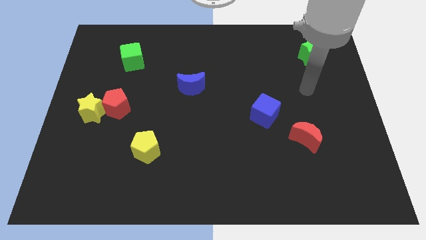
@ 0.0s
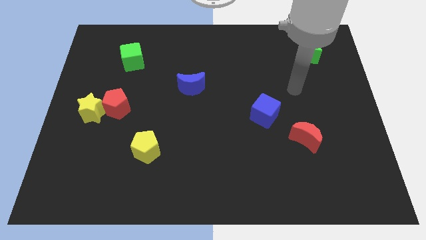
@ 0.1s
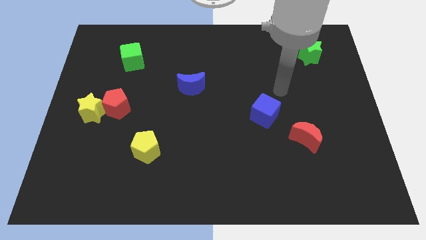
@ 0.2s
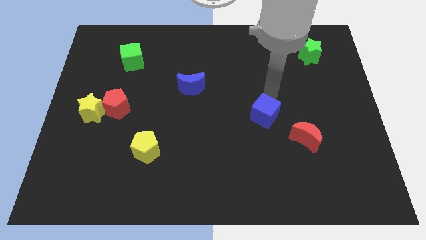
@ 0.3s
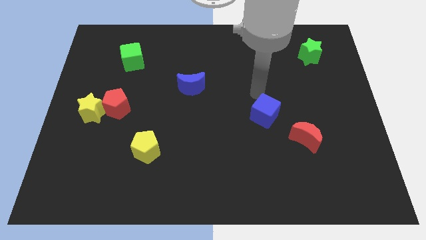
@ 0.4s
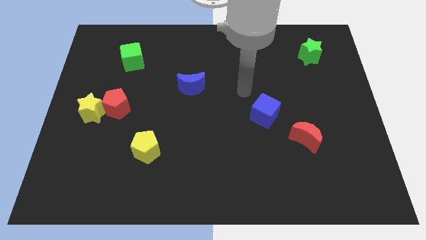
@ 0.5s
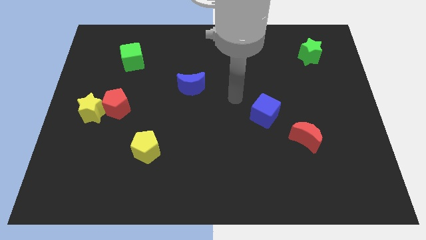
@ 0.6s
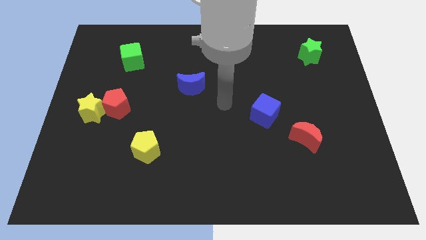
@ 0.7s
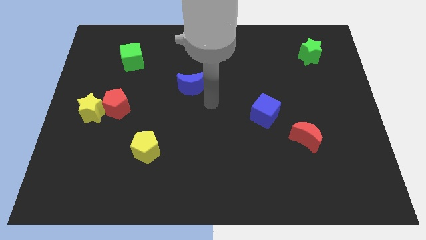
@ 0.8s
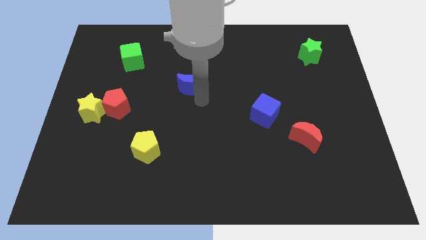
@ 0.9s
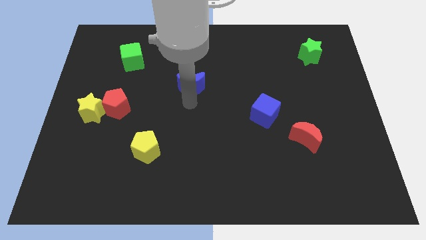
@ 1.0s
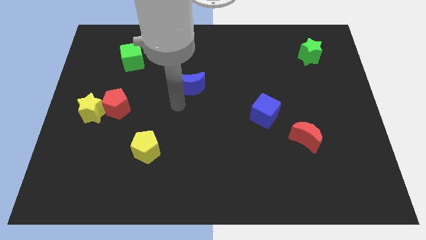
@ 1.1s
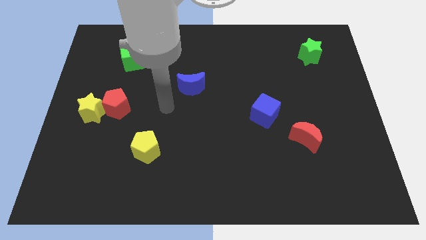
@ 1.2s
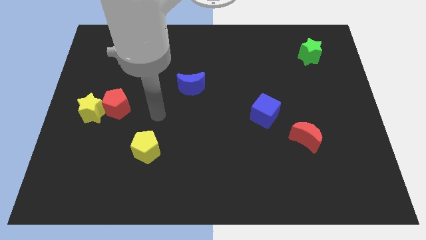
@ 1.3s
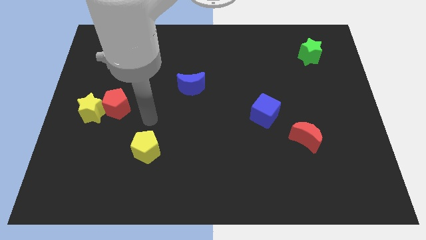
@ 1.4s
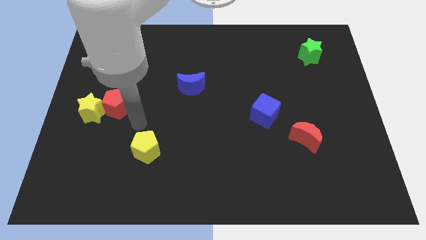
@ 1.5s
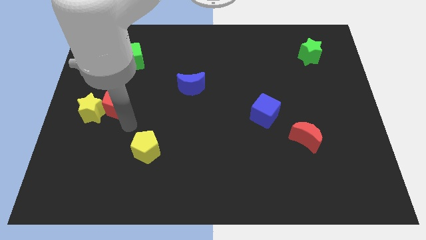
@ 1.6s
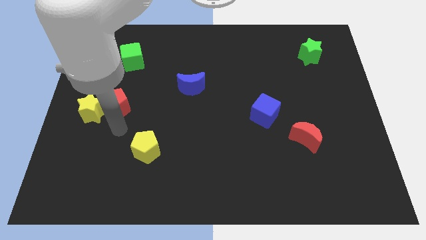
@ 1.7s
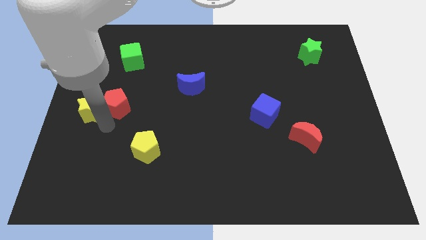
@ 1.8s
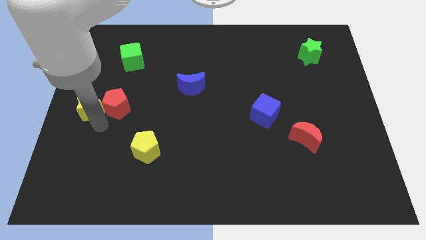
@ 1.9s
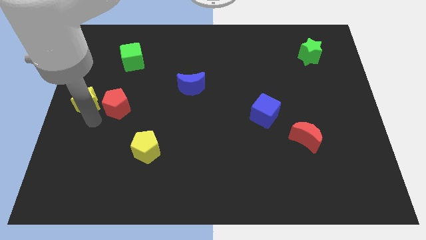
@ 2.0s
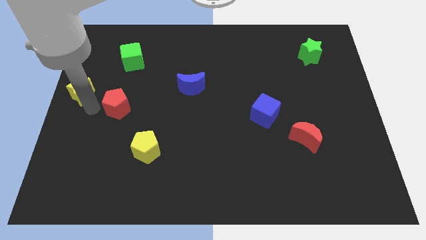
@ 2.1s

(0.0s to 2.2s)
move the red pentagon away from the yellow star

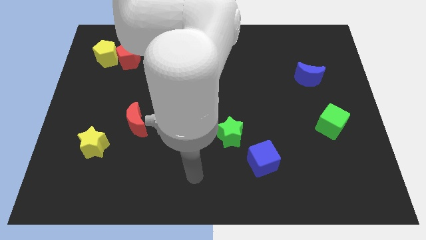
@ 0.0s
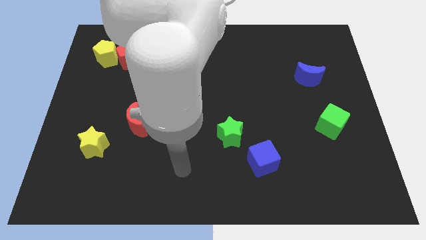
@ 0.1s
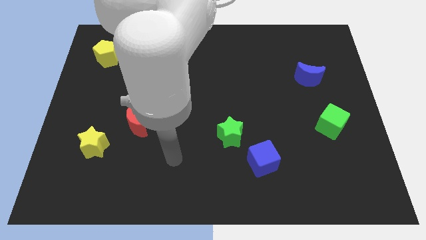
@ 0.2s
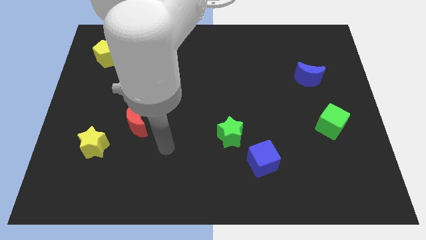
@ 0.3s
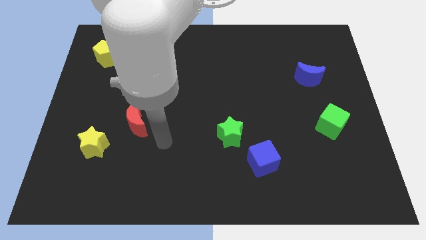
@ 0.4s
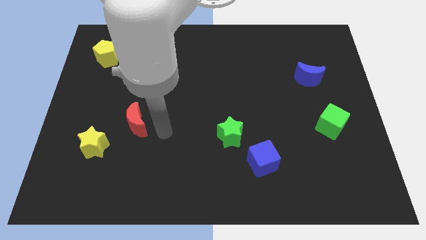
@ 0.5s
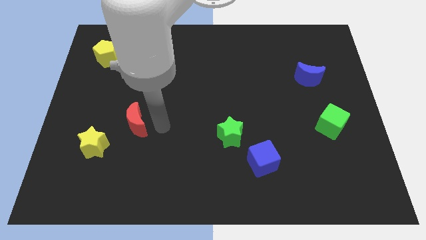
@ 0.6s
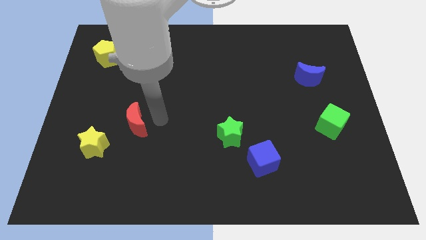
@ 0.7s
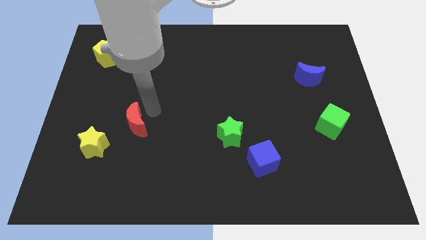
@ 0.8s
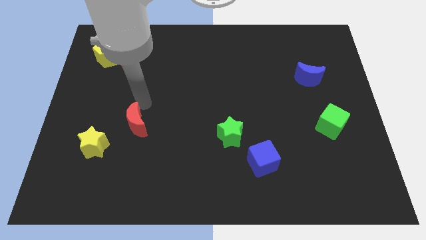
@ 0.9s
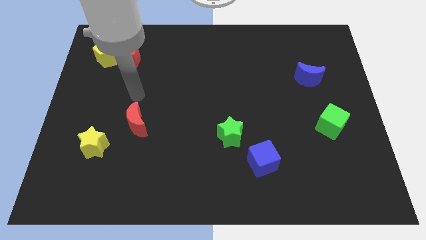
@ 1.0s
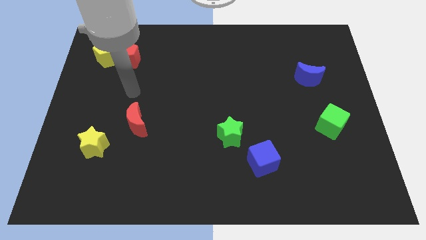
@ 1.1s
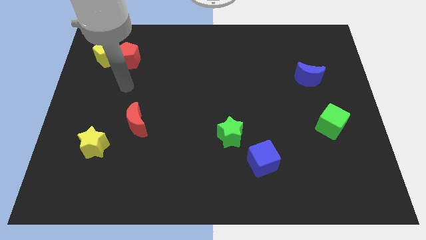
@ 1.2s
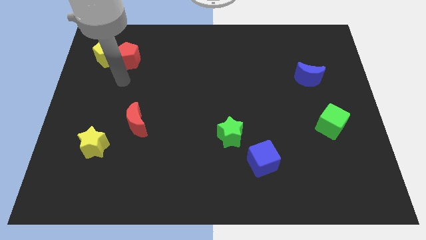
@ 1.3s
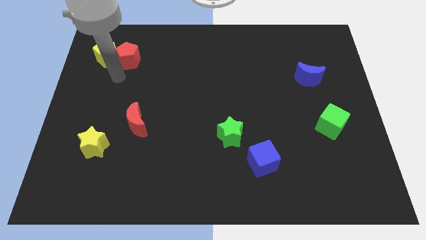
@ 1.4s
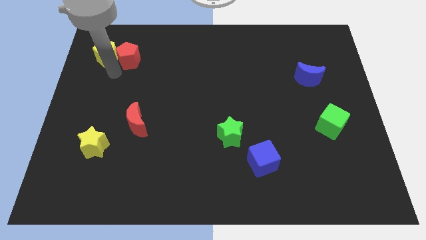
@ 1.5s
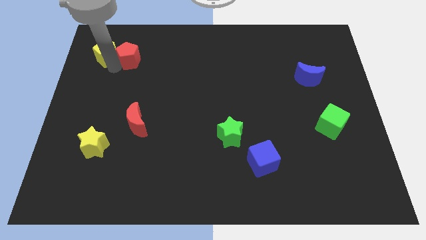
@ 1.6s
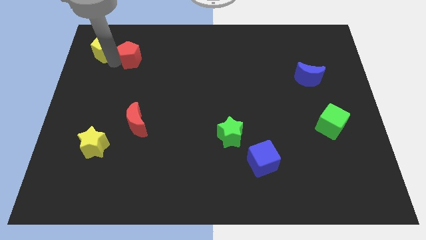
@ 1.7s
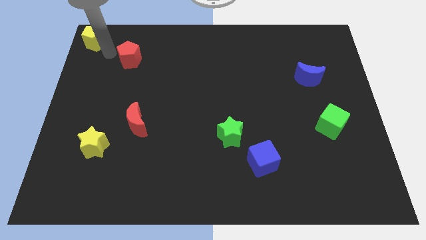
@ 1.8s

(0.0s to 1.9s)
move the red pentagon away from the yellow pentagon

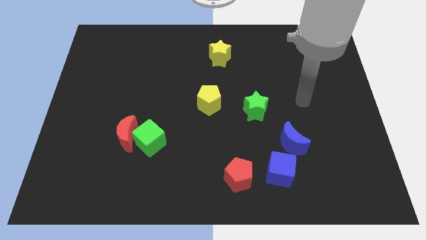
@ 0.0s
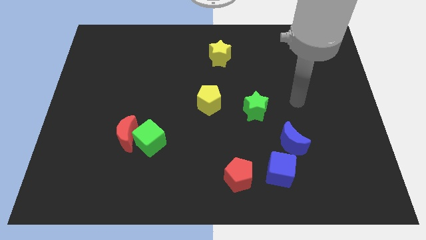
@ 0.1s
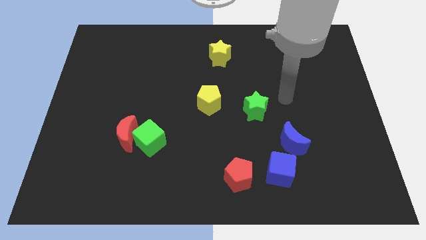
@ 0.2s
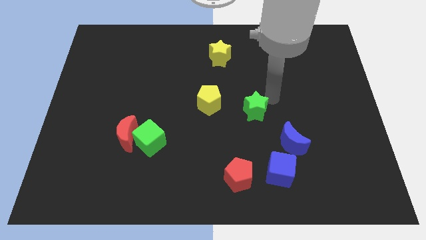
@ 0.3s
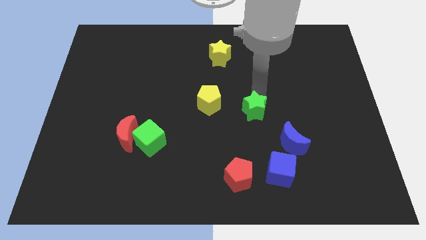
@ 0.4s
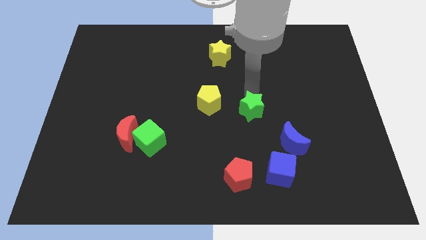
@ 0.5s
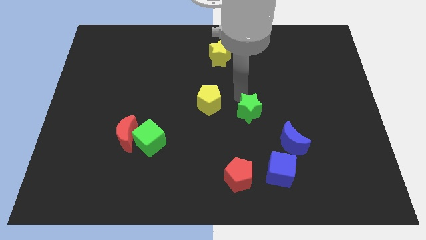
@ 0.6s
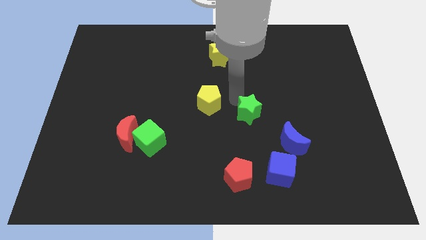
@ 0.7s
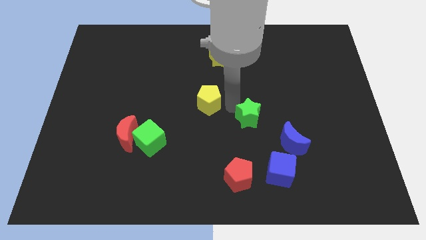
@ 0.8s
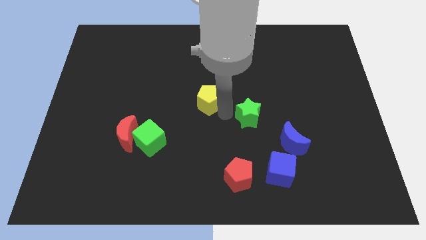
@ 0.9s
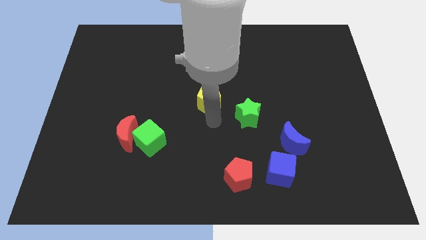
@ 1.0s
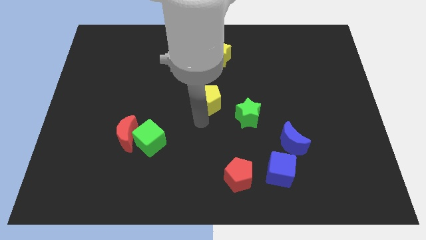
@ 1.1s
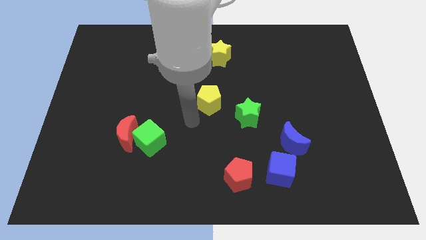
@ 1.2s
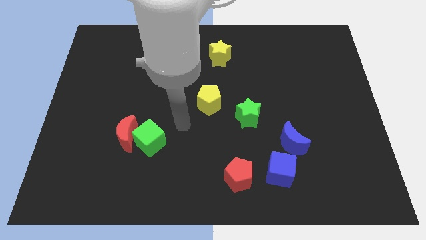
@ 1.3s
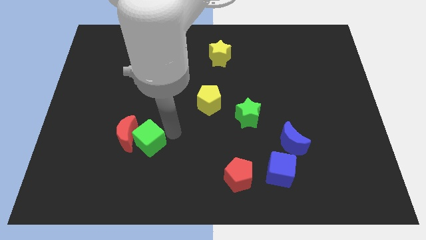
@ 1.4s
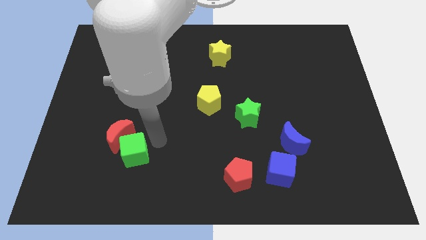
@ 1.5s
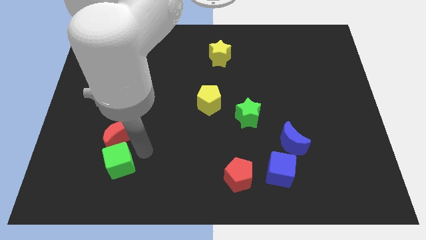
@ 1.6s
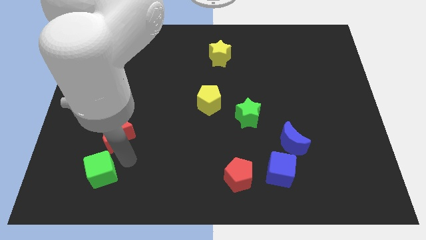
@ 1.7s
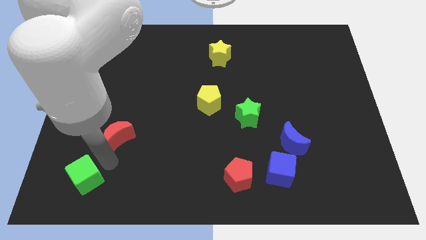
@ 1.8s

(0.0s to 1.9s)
move the red moon away from the green cube

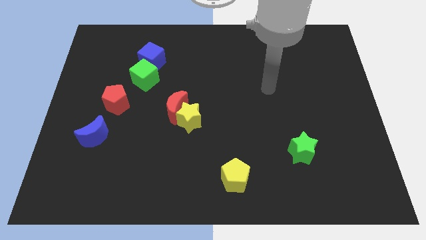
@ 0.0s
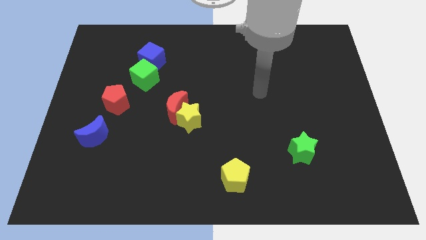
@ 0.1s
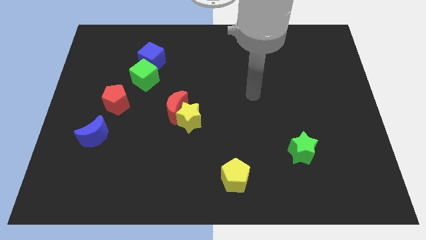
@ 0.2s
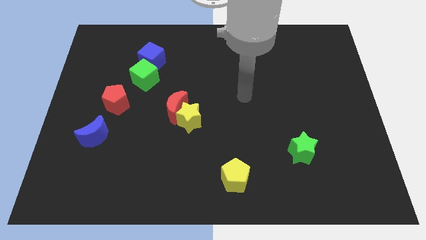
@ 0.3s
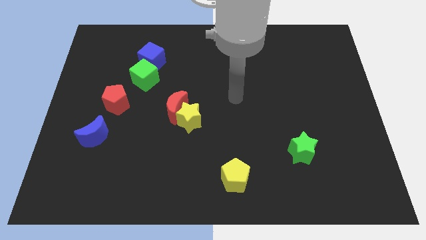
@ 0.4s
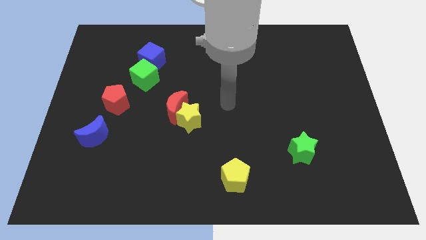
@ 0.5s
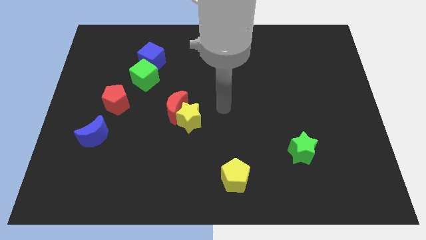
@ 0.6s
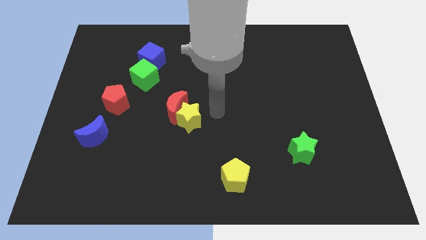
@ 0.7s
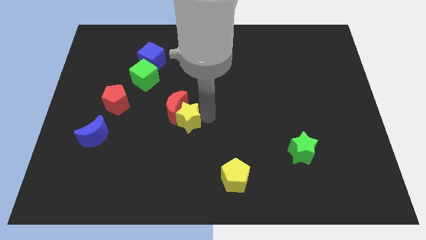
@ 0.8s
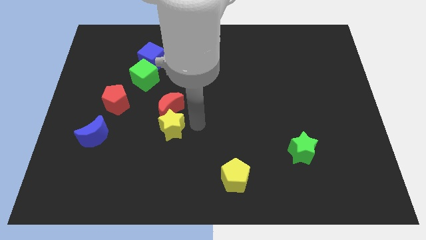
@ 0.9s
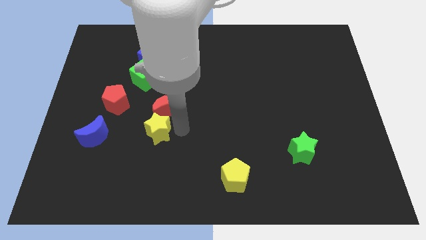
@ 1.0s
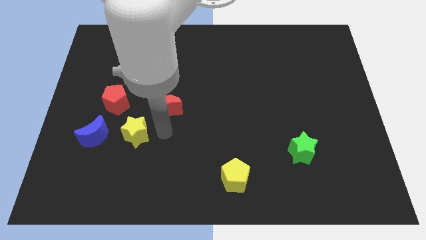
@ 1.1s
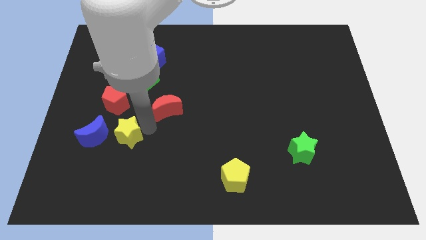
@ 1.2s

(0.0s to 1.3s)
pull the red moon apart from the yellow star

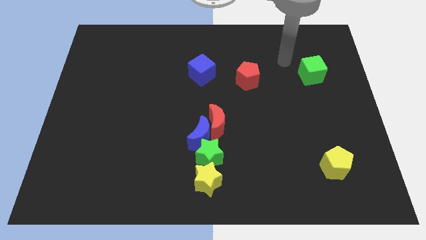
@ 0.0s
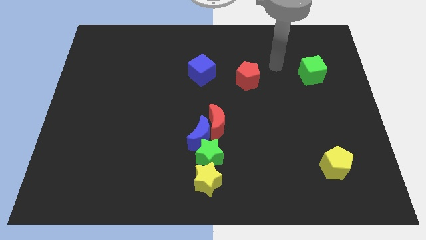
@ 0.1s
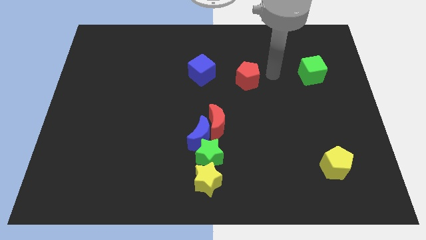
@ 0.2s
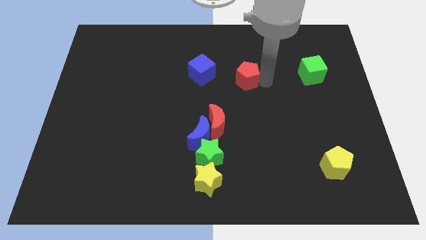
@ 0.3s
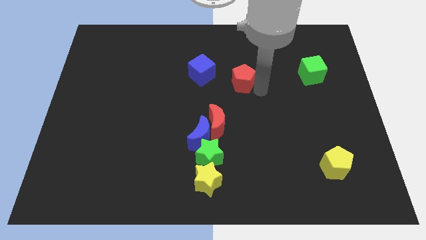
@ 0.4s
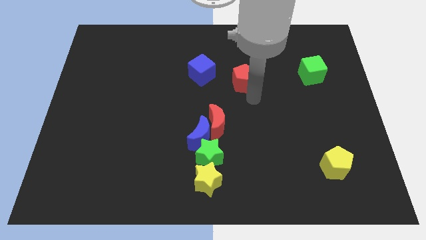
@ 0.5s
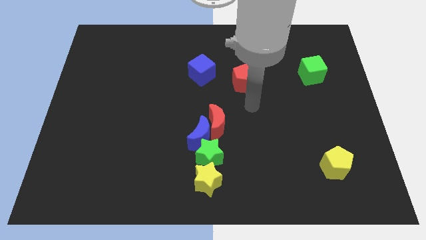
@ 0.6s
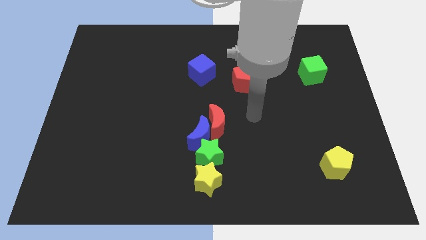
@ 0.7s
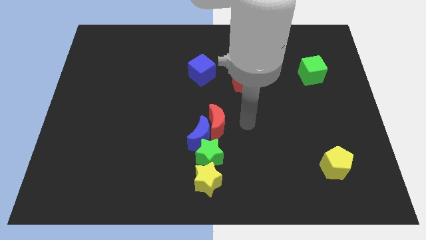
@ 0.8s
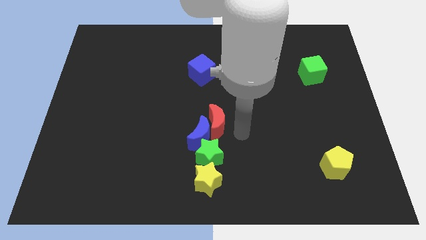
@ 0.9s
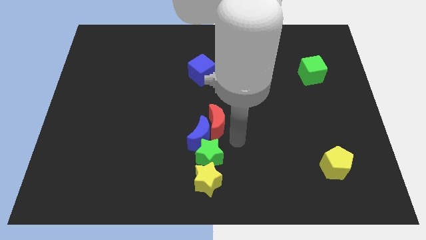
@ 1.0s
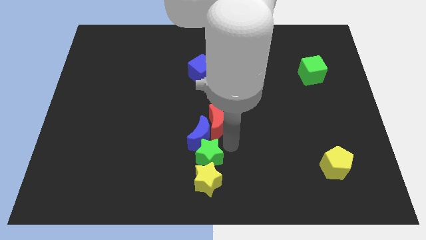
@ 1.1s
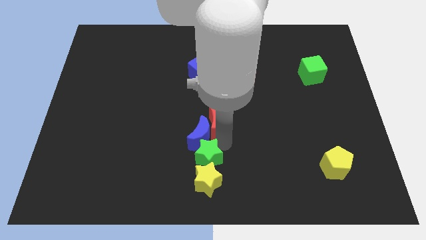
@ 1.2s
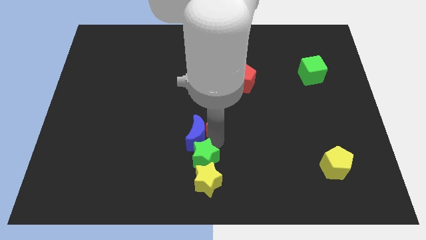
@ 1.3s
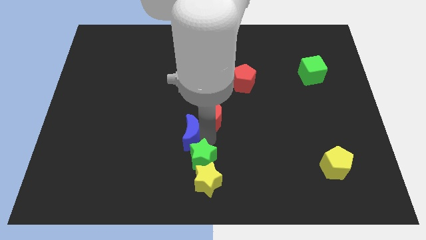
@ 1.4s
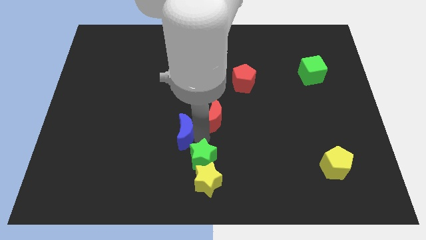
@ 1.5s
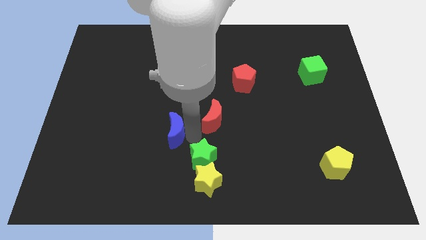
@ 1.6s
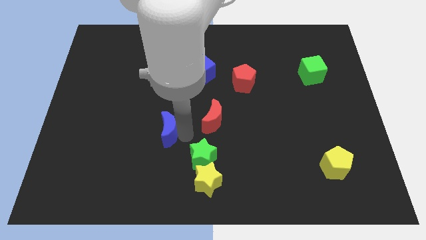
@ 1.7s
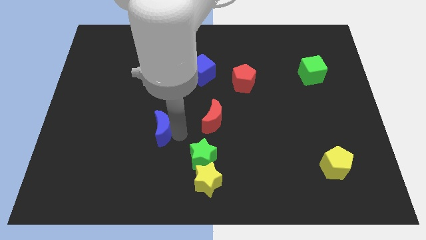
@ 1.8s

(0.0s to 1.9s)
move the blue moon away from the red moon and green star
